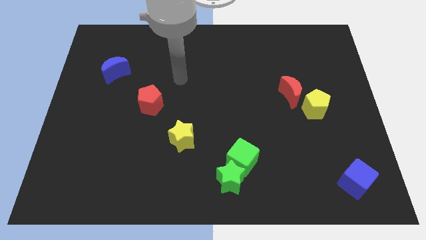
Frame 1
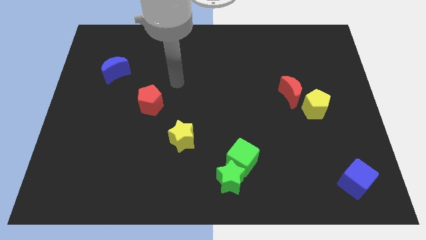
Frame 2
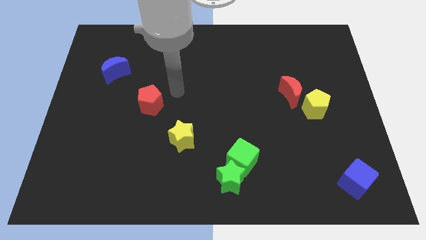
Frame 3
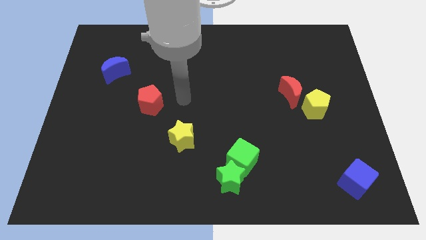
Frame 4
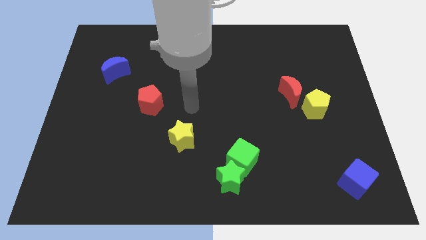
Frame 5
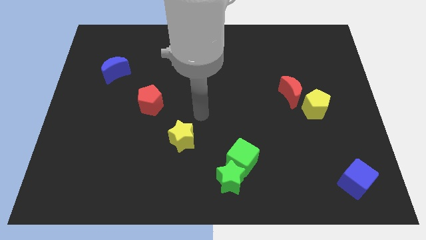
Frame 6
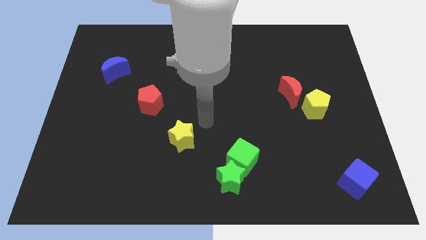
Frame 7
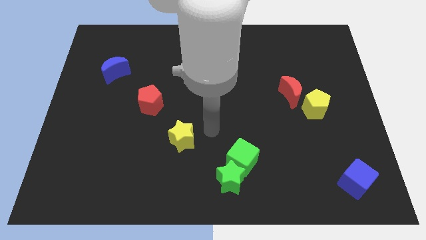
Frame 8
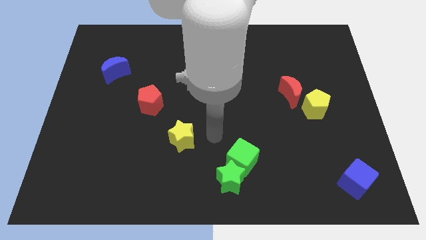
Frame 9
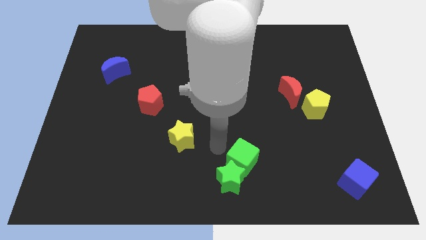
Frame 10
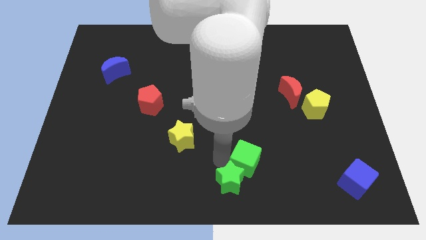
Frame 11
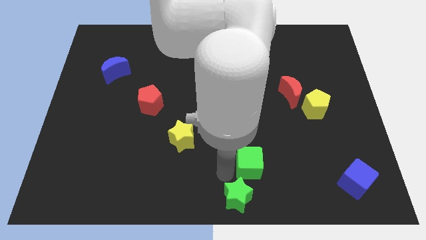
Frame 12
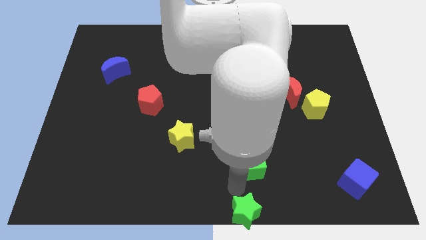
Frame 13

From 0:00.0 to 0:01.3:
move the green cube away from the green star

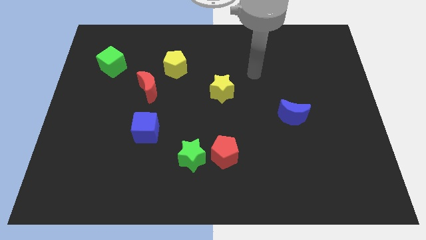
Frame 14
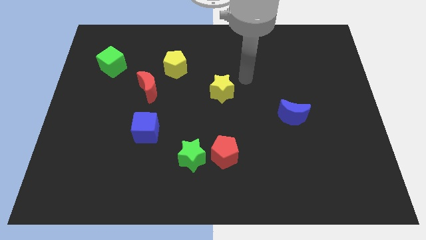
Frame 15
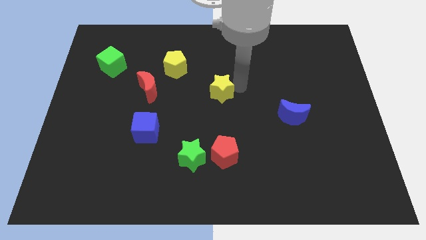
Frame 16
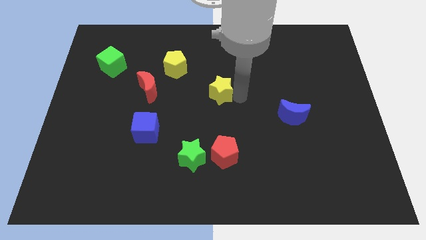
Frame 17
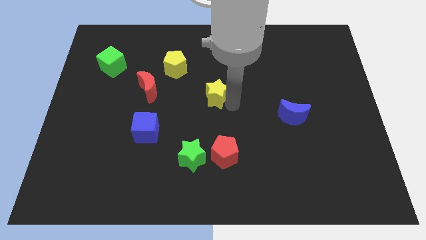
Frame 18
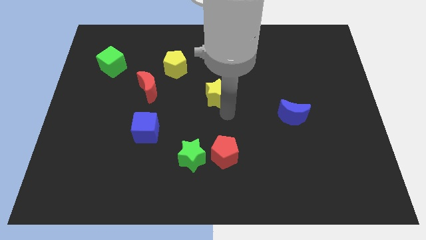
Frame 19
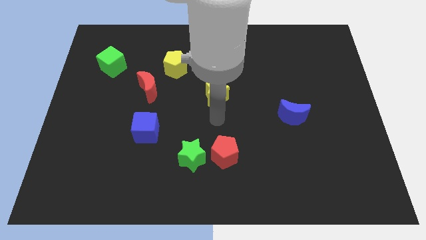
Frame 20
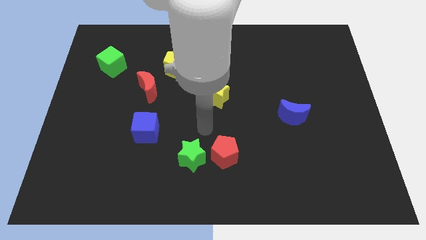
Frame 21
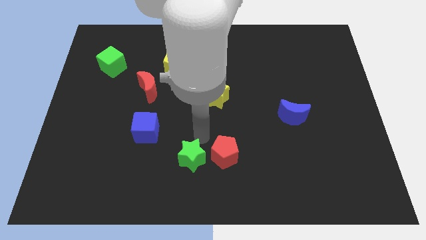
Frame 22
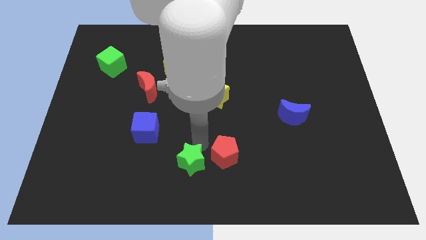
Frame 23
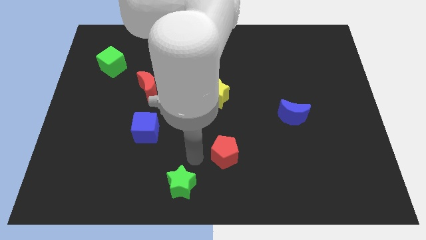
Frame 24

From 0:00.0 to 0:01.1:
separate the red pentagon from the green star

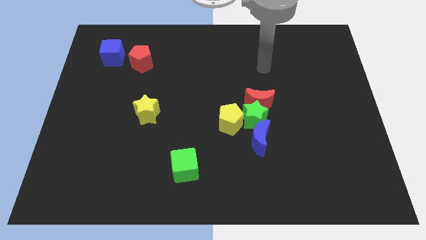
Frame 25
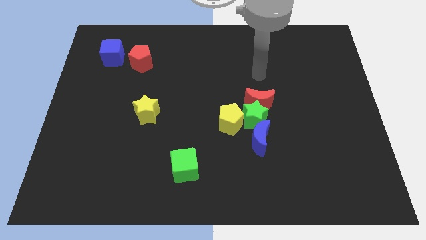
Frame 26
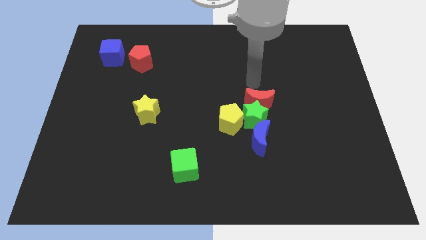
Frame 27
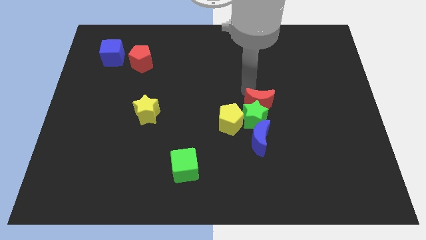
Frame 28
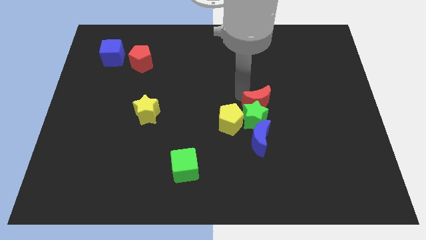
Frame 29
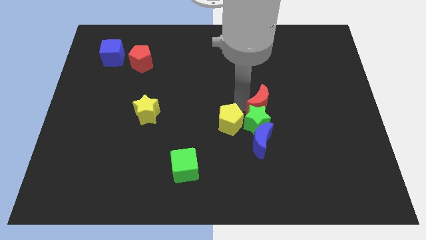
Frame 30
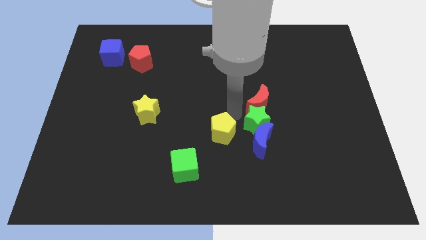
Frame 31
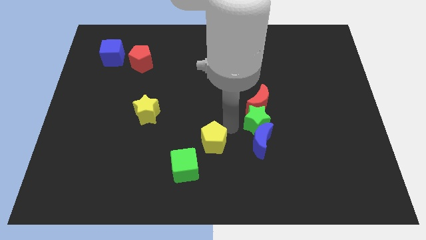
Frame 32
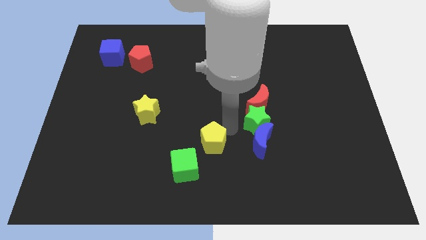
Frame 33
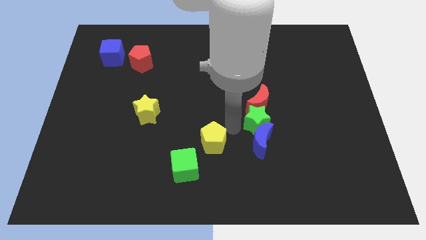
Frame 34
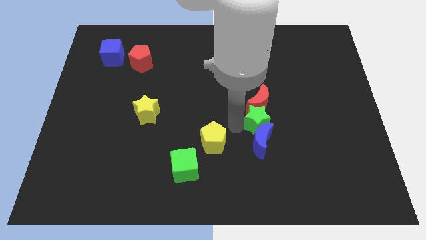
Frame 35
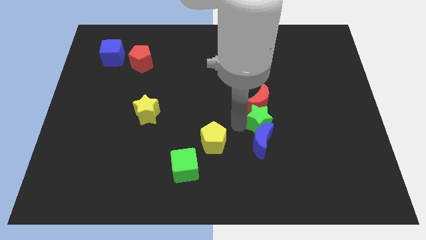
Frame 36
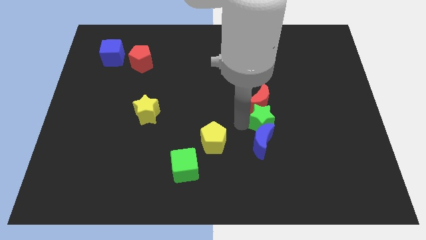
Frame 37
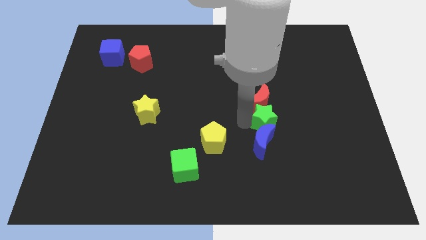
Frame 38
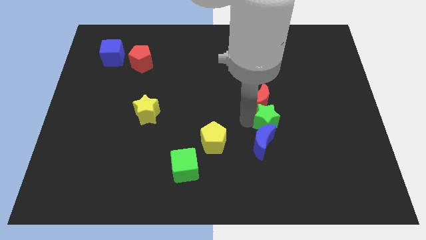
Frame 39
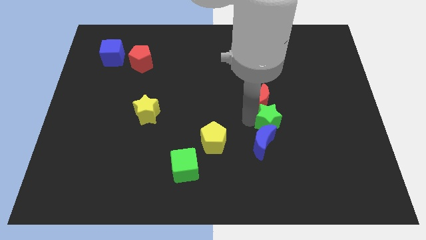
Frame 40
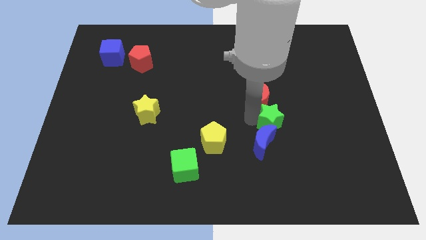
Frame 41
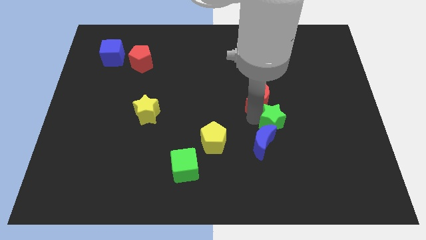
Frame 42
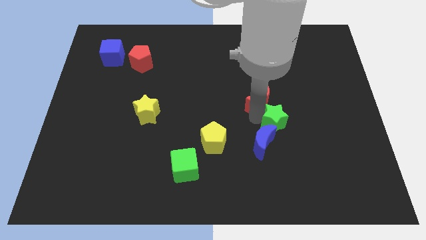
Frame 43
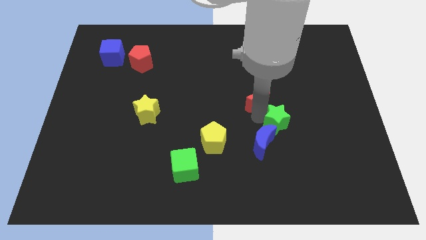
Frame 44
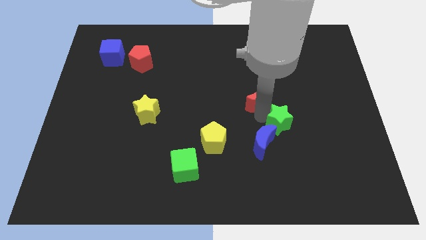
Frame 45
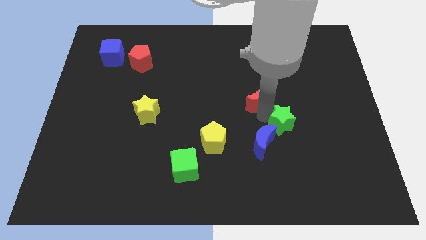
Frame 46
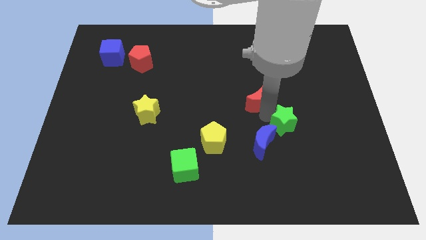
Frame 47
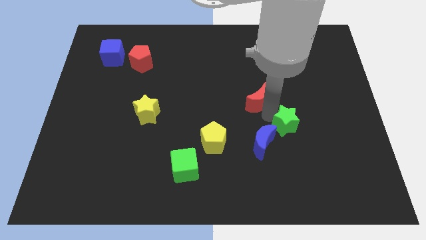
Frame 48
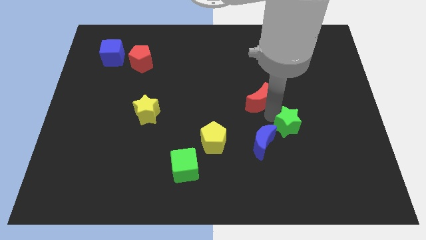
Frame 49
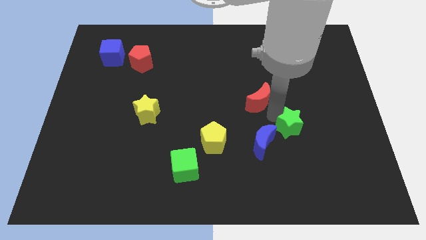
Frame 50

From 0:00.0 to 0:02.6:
separate the green star from the clump

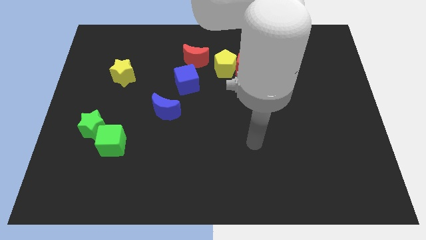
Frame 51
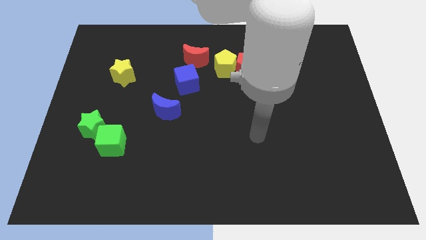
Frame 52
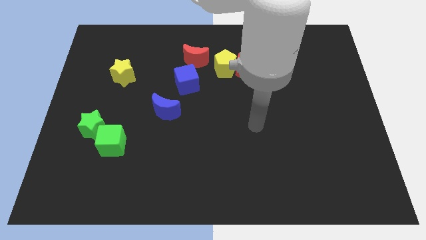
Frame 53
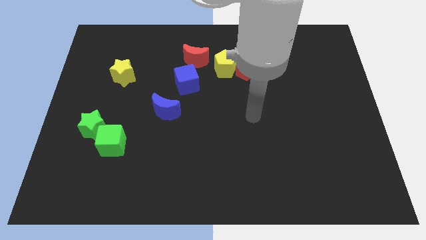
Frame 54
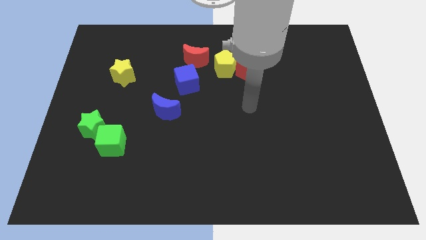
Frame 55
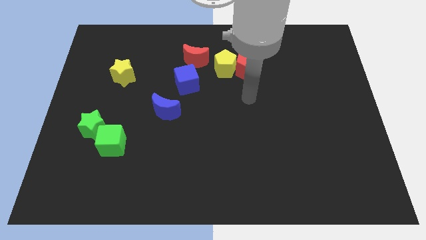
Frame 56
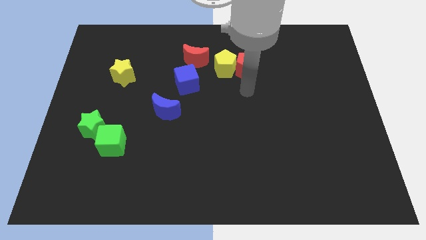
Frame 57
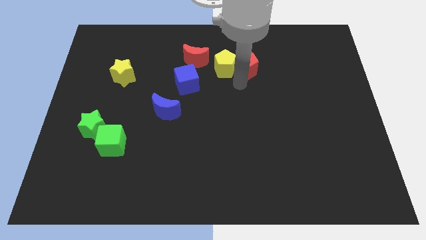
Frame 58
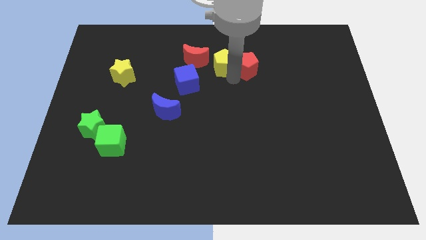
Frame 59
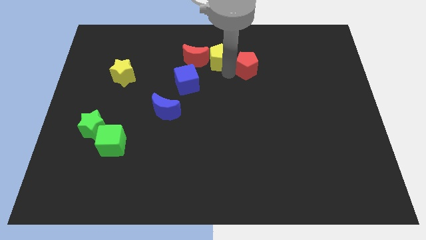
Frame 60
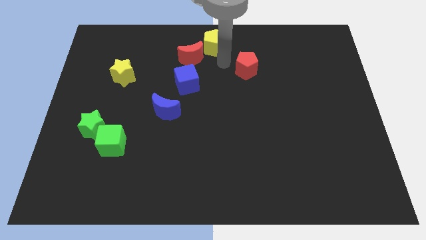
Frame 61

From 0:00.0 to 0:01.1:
separate the red pentagon from the yellow pentagon

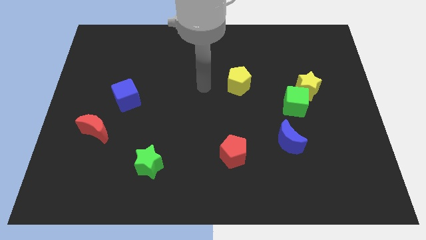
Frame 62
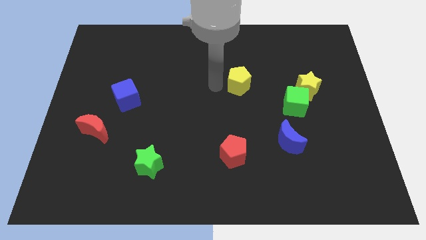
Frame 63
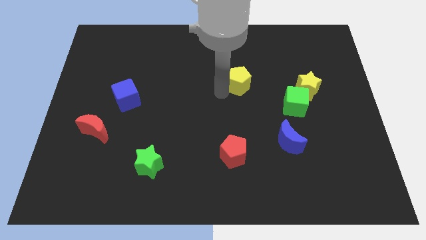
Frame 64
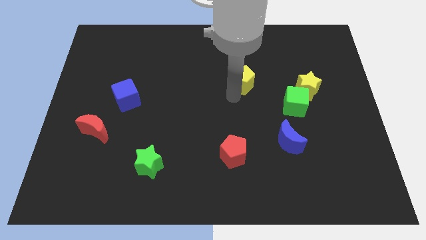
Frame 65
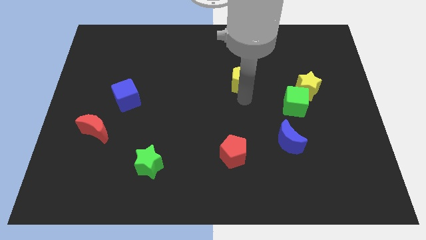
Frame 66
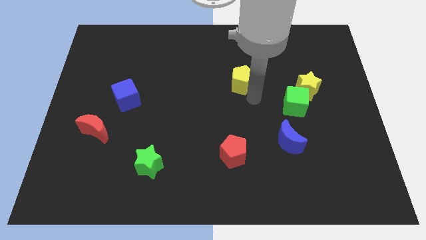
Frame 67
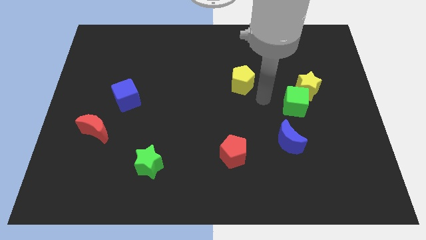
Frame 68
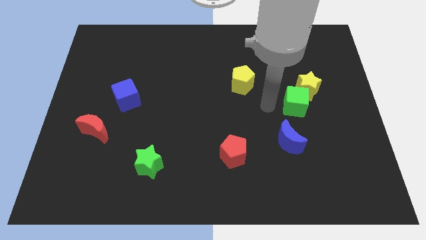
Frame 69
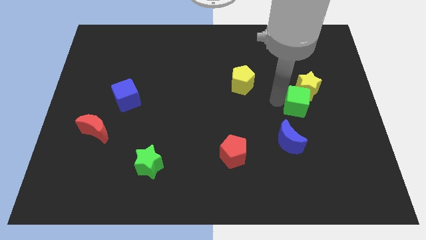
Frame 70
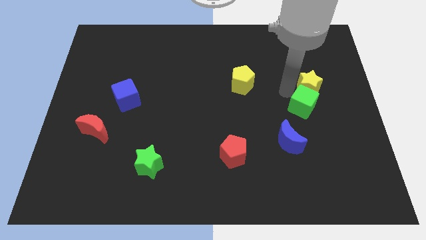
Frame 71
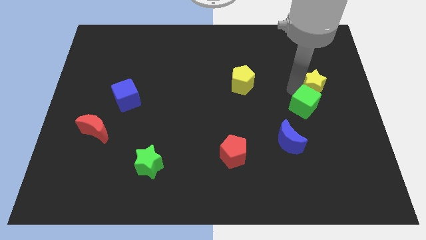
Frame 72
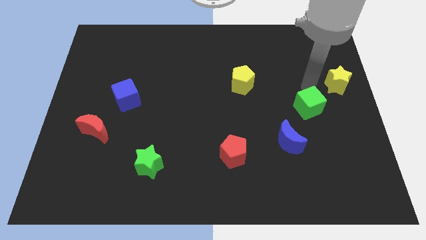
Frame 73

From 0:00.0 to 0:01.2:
move the green cube away from the yellow star

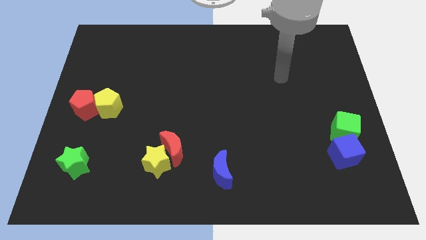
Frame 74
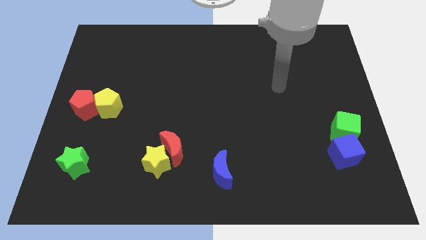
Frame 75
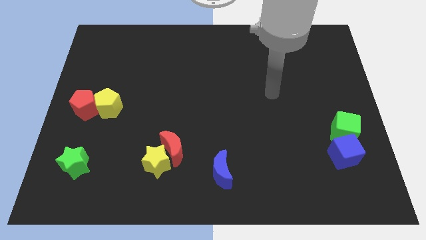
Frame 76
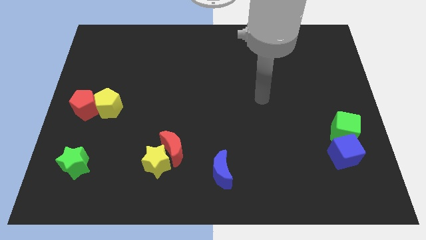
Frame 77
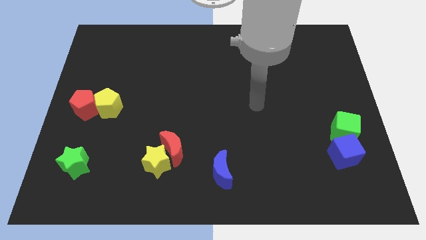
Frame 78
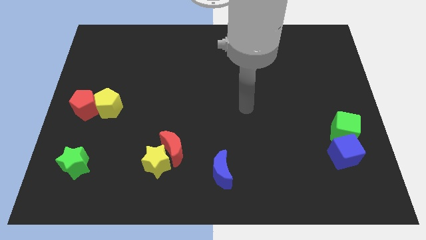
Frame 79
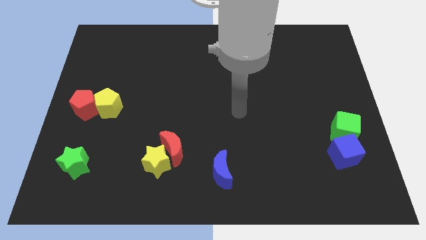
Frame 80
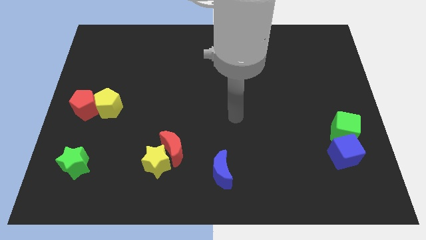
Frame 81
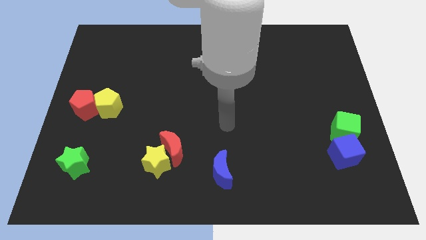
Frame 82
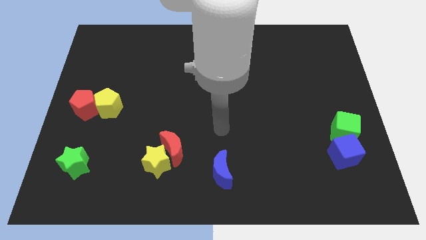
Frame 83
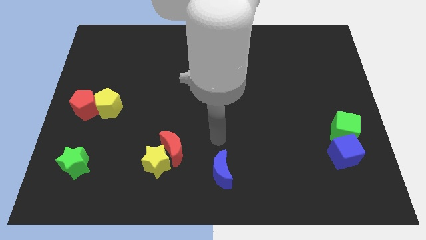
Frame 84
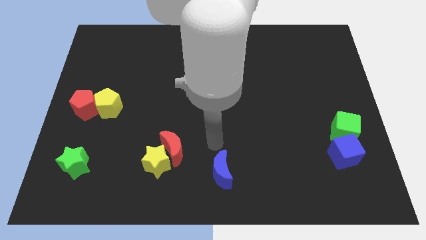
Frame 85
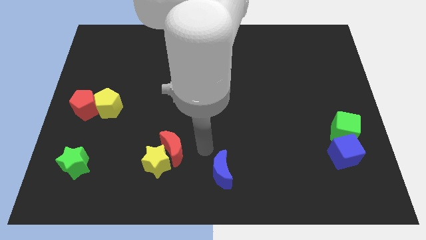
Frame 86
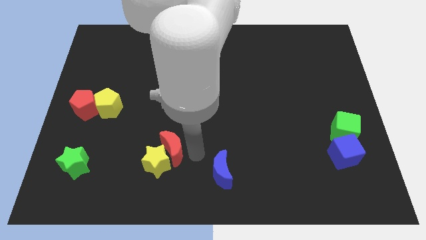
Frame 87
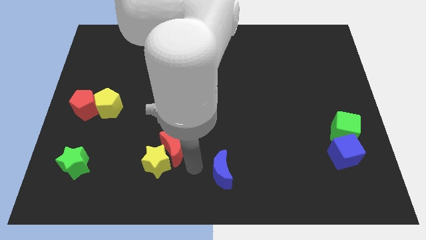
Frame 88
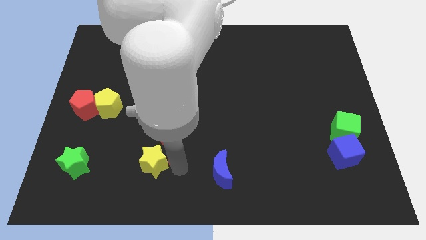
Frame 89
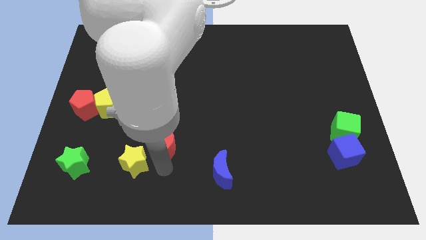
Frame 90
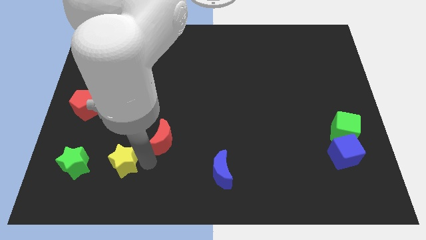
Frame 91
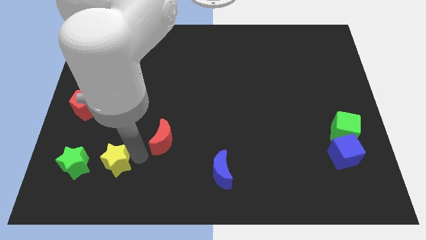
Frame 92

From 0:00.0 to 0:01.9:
move the red moon away from the yellow star

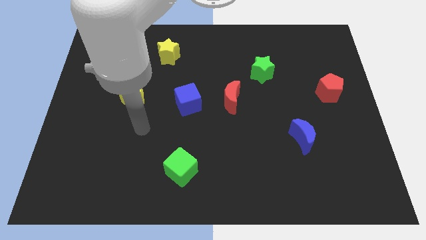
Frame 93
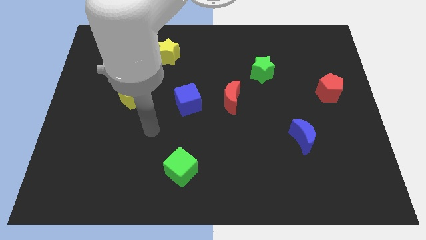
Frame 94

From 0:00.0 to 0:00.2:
pull the red moon apart from the blue cube
